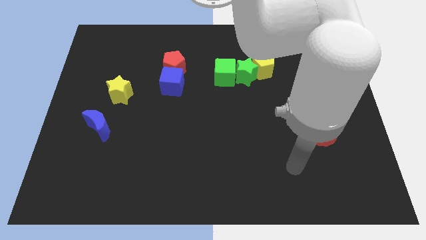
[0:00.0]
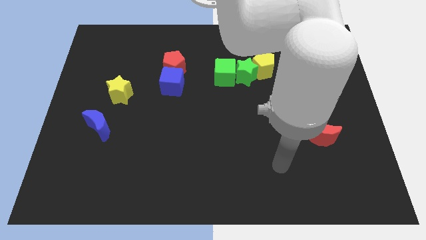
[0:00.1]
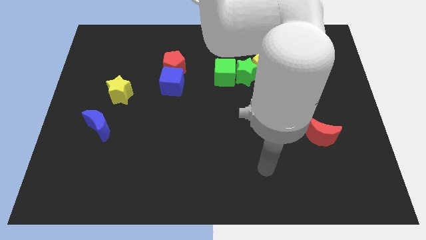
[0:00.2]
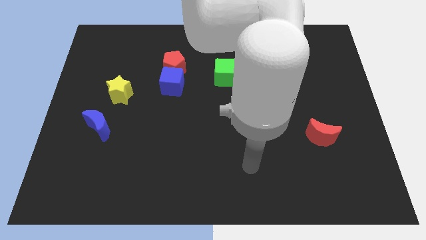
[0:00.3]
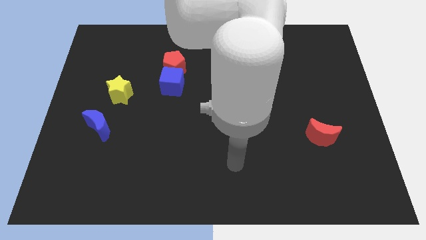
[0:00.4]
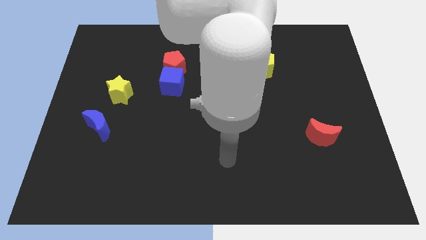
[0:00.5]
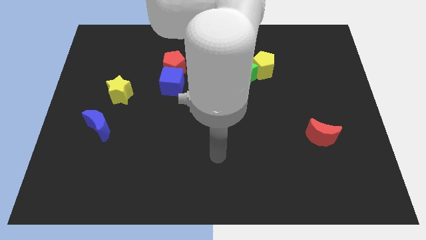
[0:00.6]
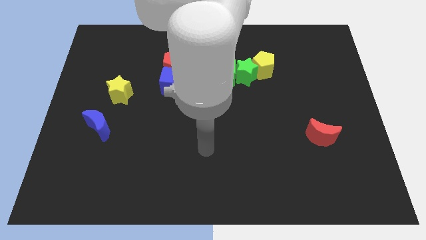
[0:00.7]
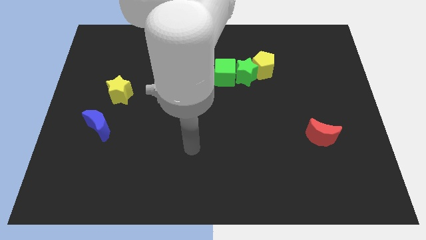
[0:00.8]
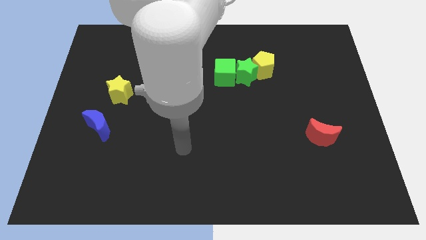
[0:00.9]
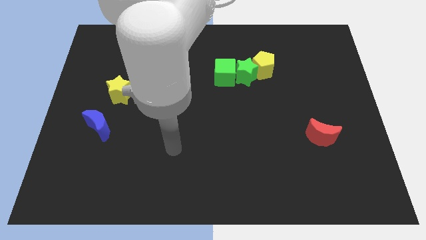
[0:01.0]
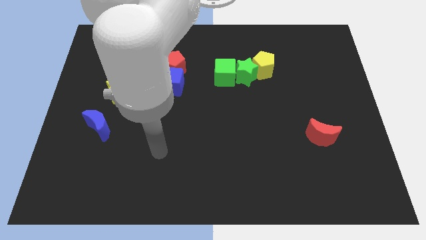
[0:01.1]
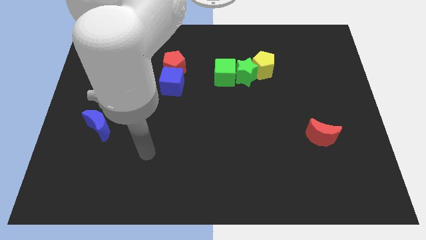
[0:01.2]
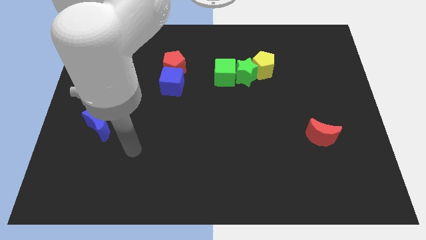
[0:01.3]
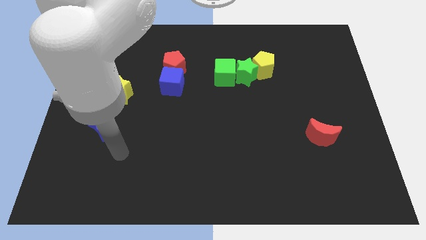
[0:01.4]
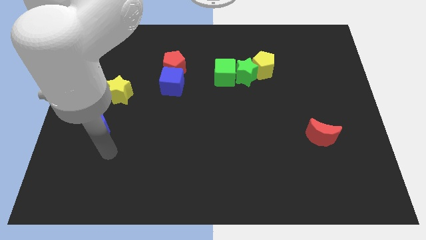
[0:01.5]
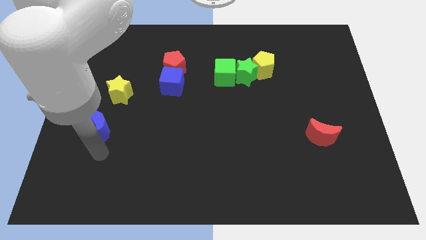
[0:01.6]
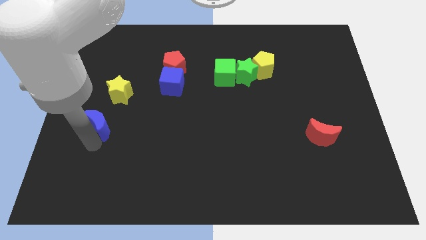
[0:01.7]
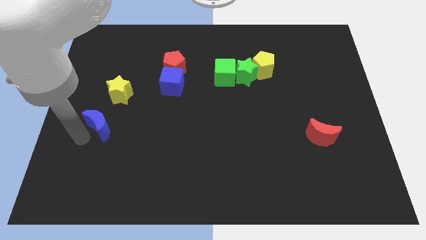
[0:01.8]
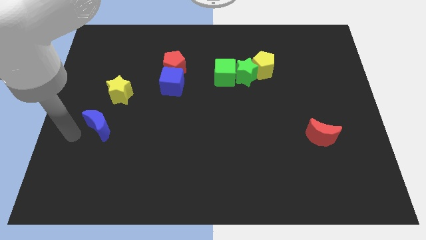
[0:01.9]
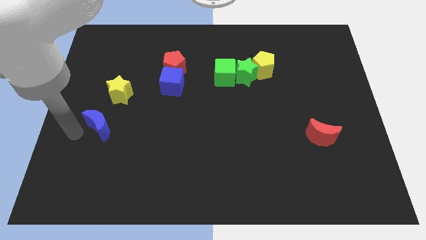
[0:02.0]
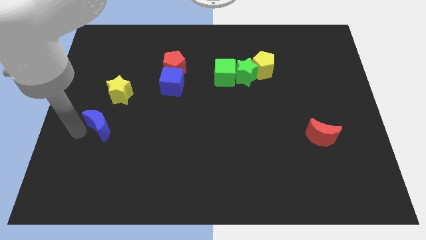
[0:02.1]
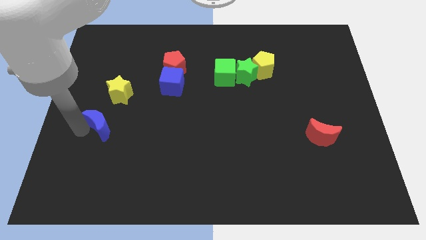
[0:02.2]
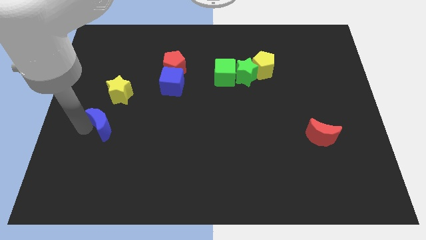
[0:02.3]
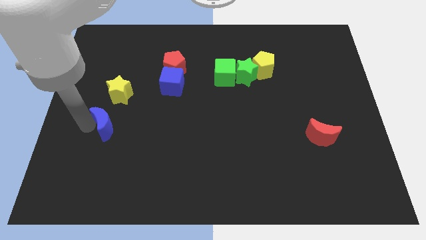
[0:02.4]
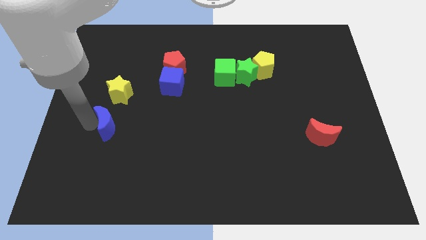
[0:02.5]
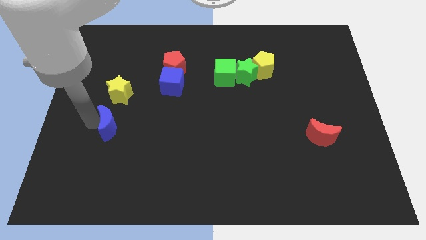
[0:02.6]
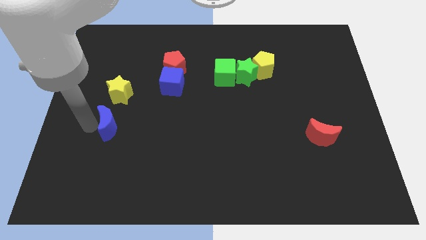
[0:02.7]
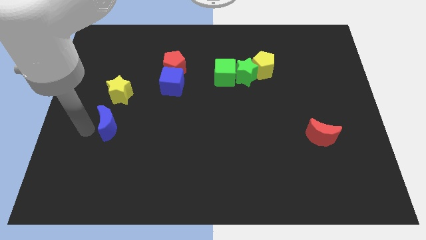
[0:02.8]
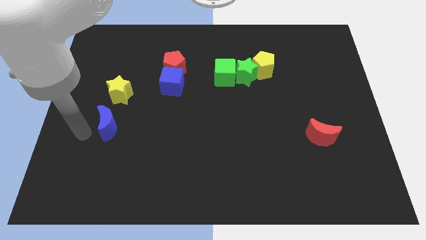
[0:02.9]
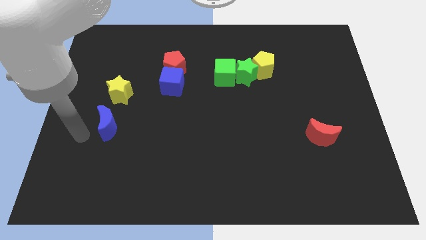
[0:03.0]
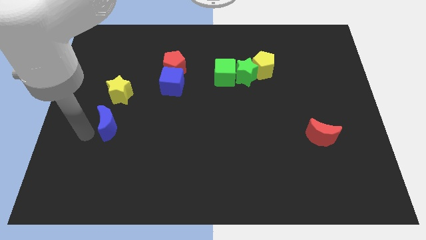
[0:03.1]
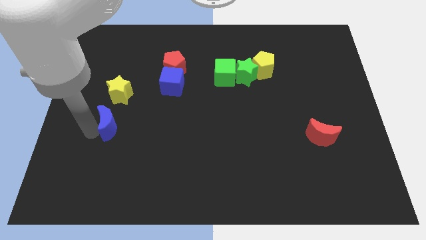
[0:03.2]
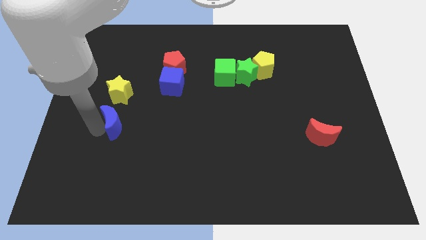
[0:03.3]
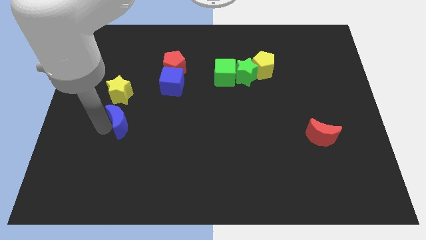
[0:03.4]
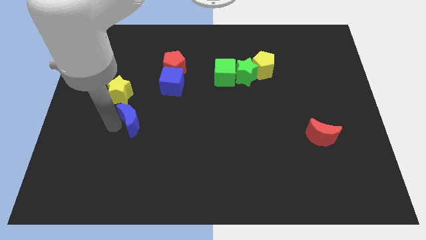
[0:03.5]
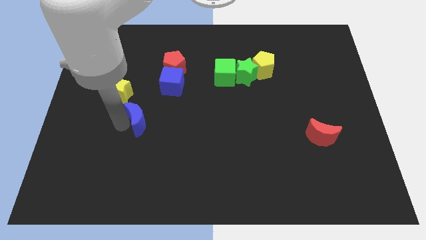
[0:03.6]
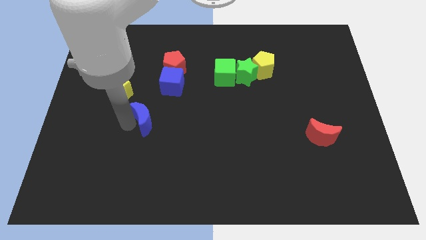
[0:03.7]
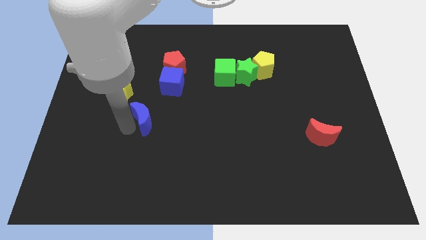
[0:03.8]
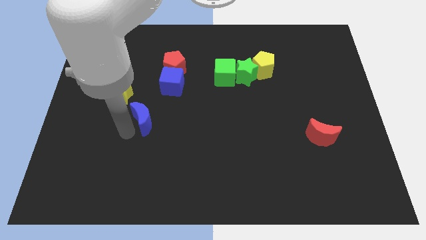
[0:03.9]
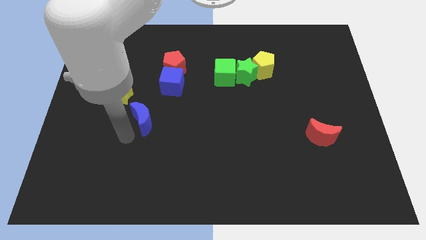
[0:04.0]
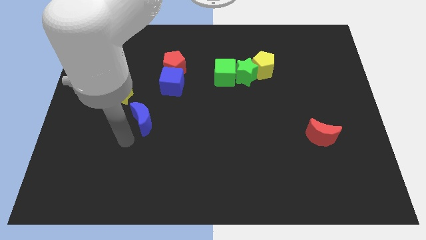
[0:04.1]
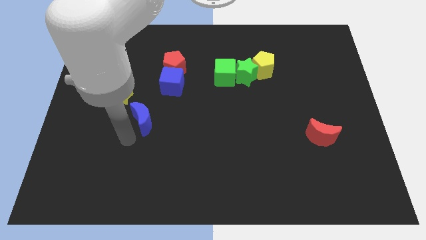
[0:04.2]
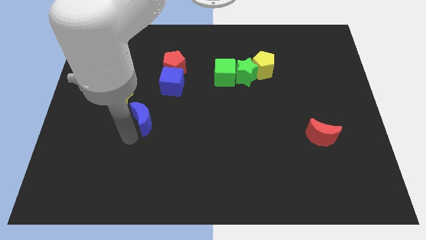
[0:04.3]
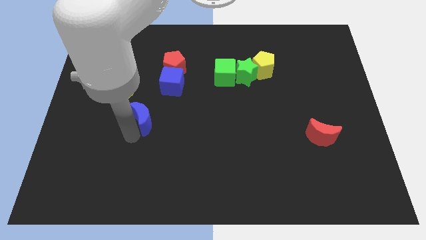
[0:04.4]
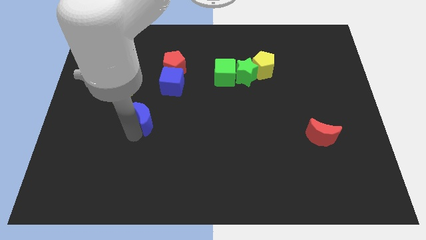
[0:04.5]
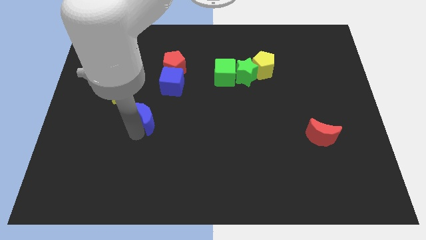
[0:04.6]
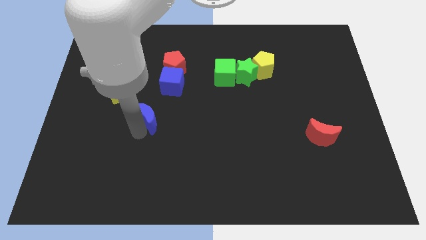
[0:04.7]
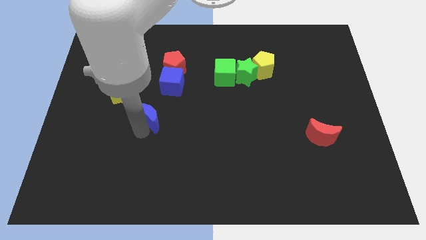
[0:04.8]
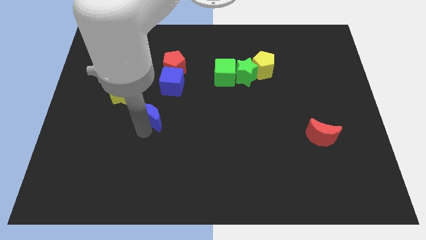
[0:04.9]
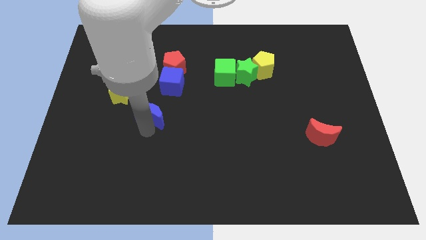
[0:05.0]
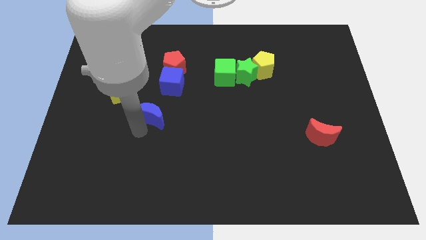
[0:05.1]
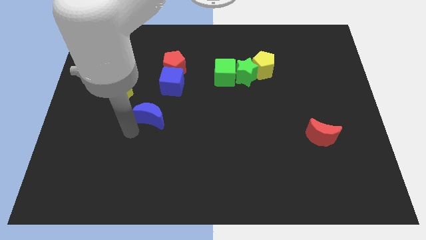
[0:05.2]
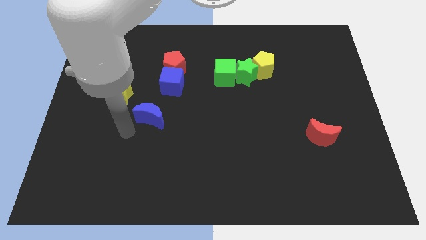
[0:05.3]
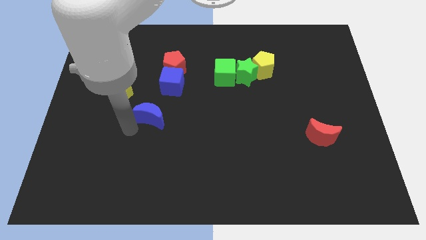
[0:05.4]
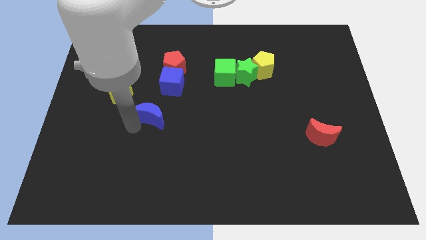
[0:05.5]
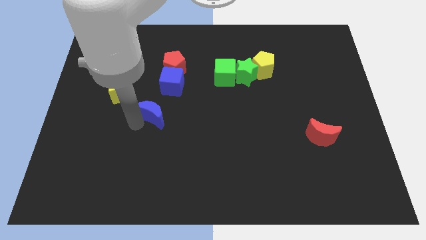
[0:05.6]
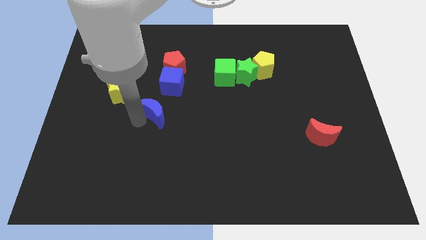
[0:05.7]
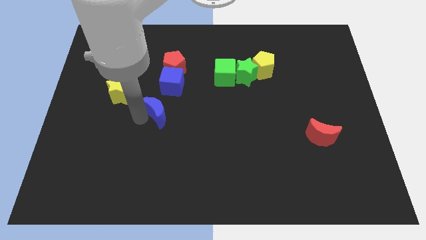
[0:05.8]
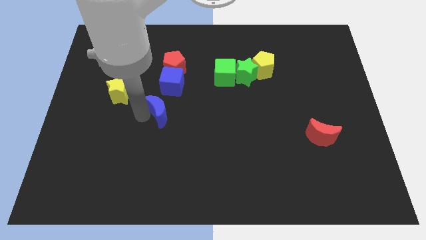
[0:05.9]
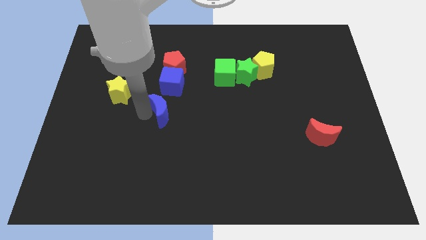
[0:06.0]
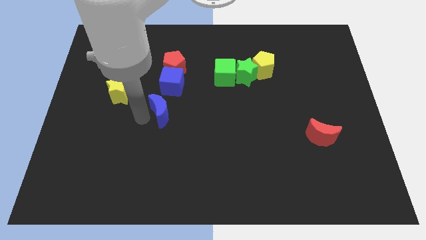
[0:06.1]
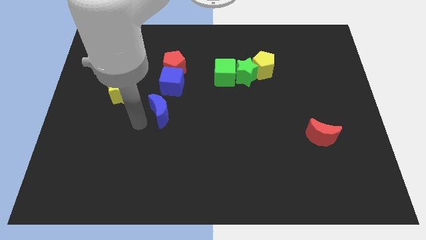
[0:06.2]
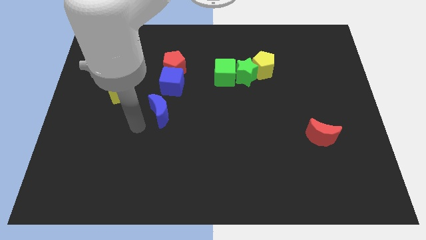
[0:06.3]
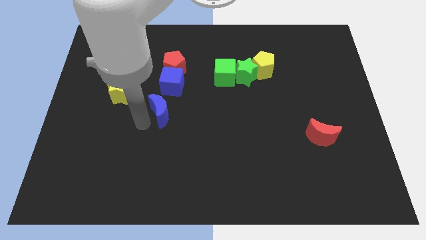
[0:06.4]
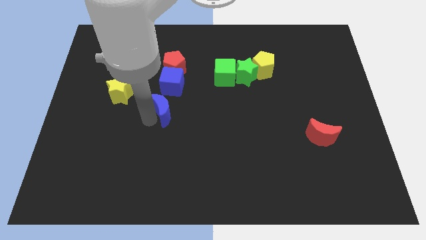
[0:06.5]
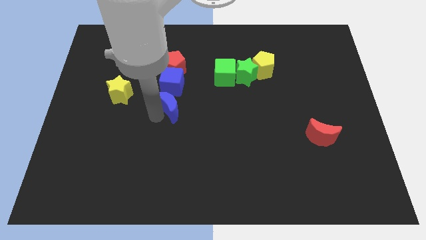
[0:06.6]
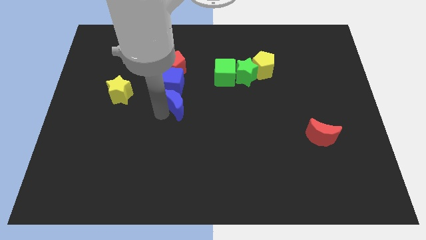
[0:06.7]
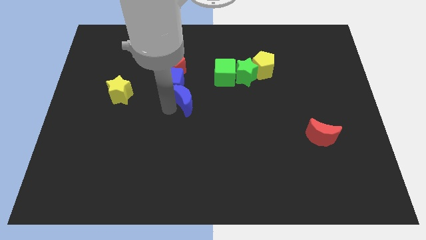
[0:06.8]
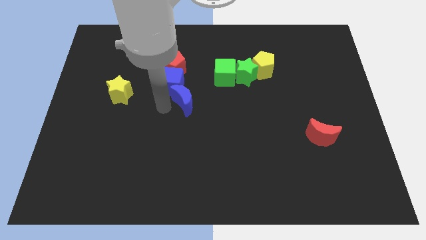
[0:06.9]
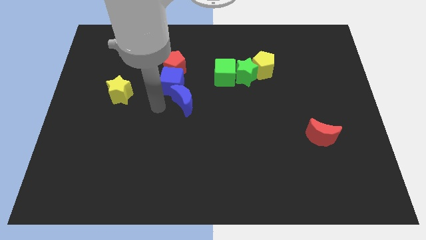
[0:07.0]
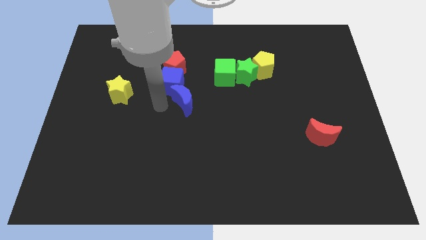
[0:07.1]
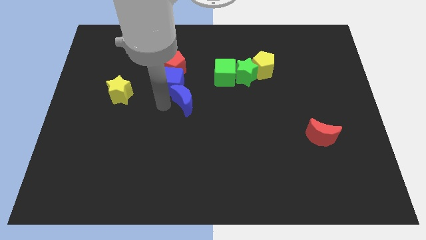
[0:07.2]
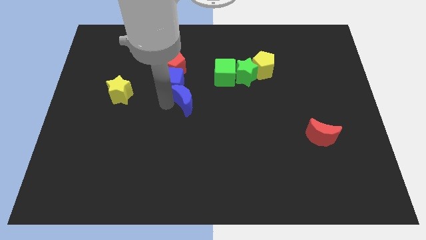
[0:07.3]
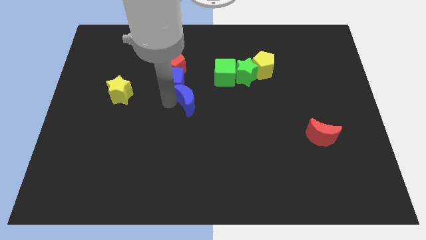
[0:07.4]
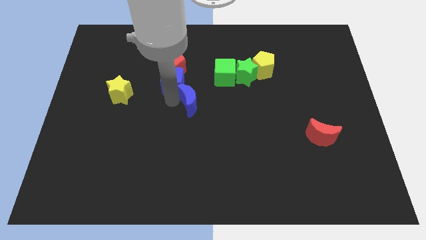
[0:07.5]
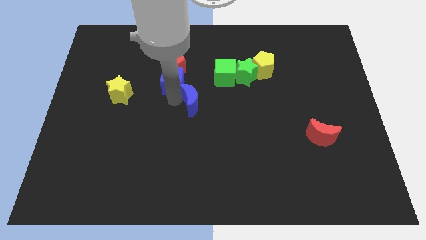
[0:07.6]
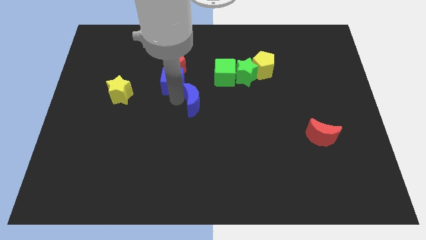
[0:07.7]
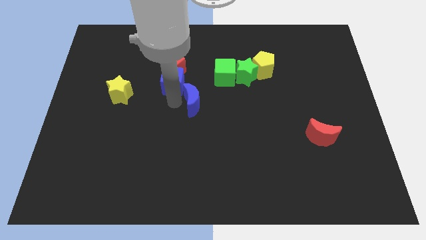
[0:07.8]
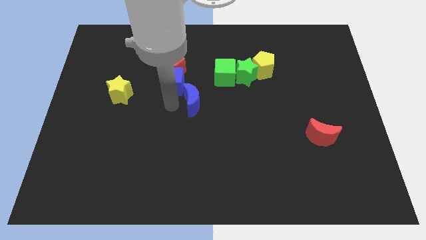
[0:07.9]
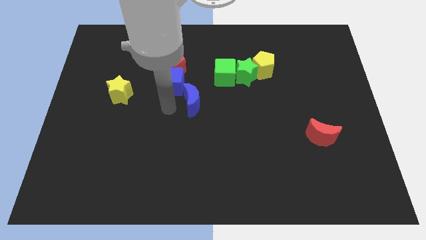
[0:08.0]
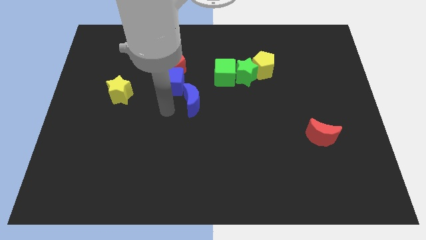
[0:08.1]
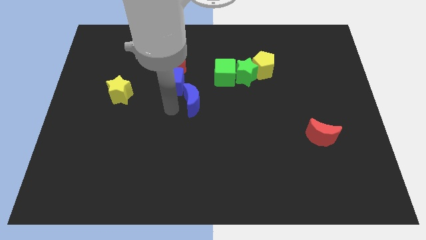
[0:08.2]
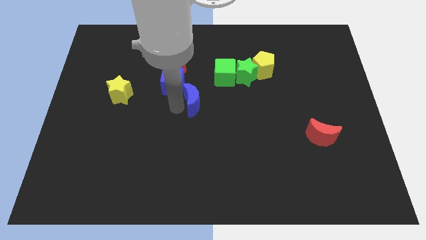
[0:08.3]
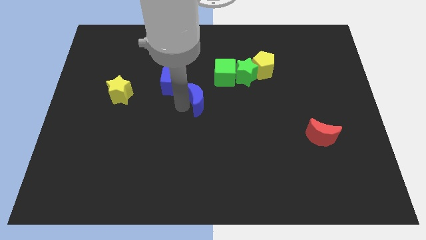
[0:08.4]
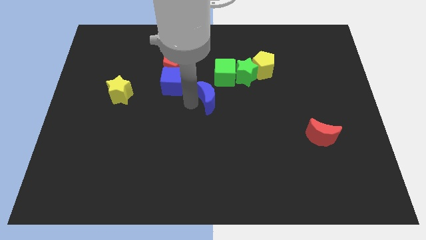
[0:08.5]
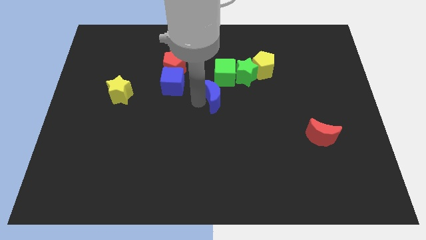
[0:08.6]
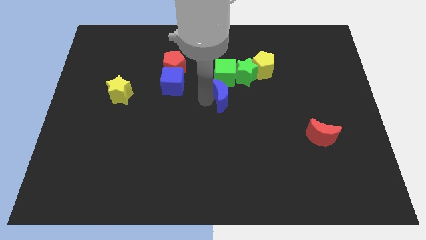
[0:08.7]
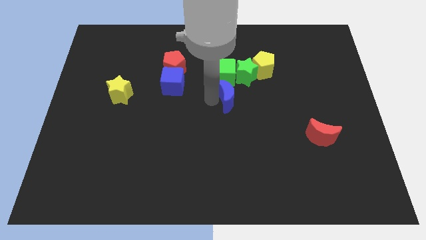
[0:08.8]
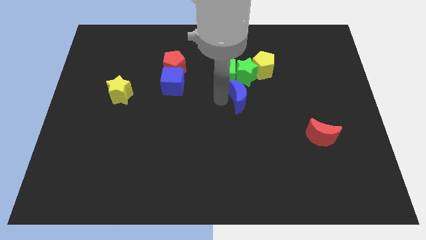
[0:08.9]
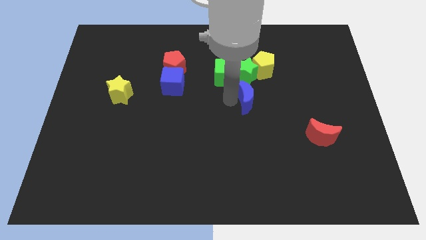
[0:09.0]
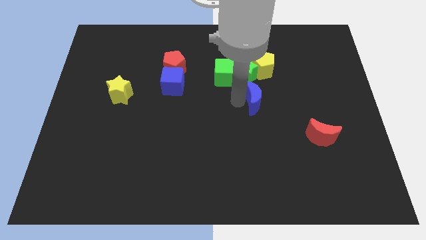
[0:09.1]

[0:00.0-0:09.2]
slide the blue moon to the bottom right of the green star
